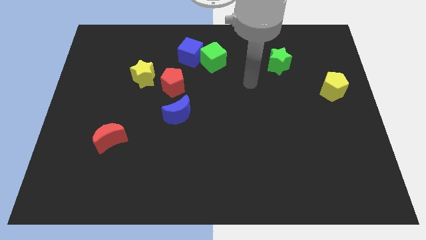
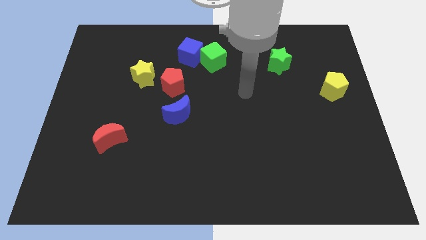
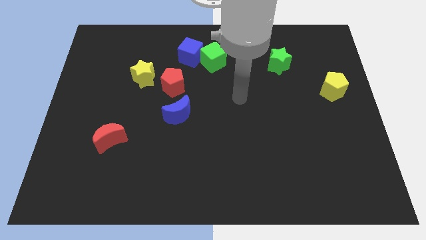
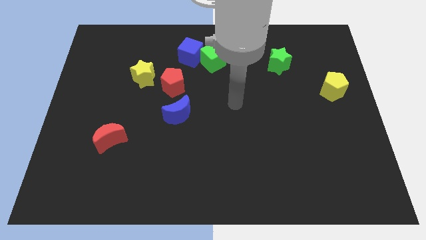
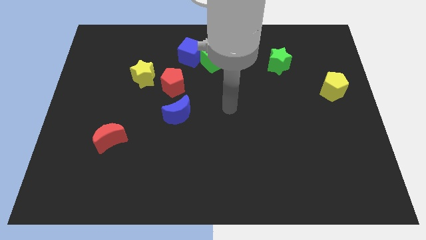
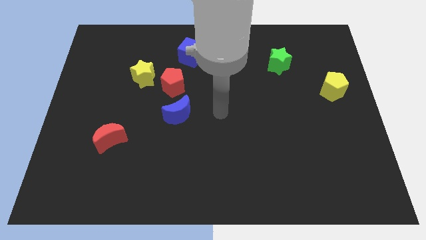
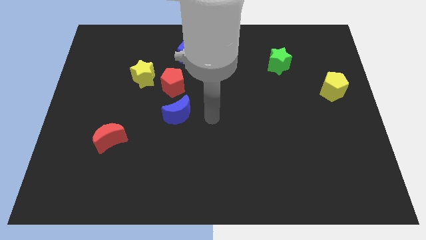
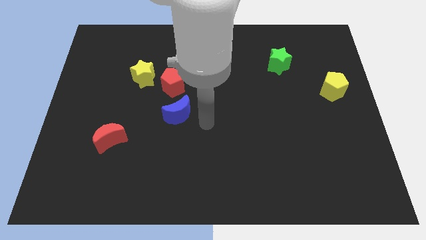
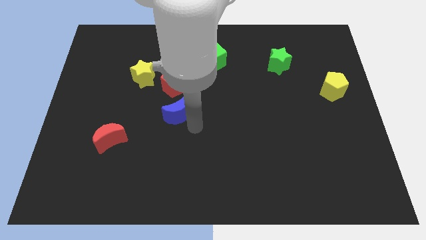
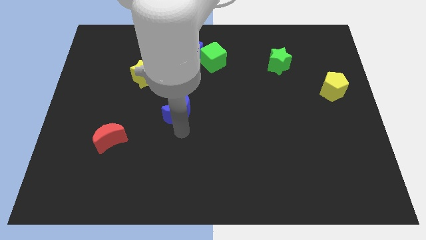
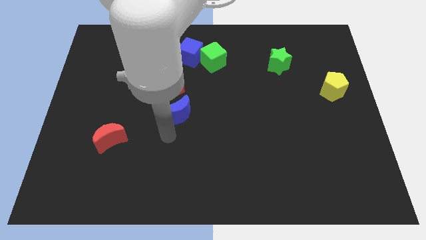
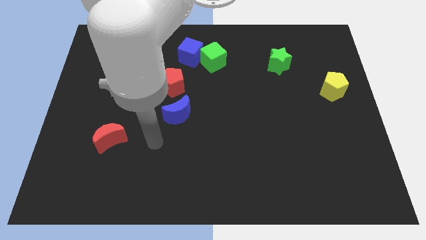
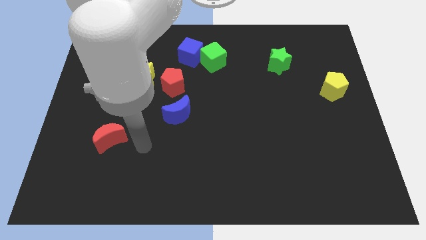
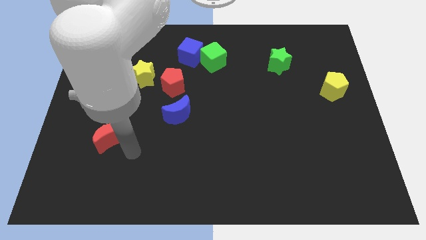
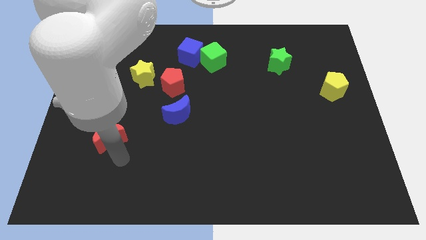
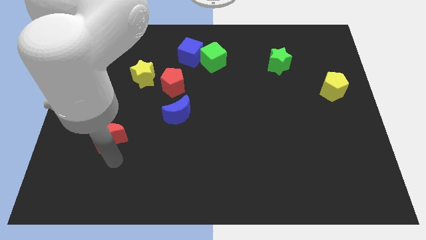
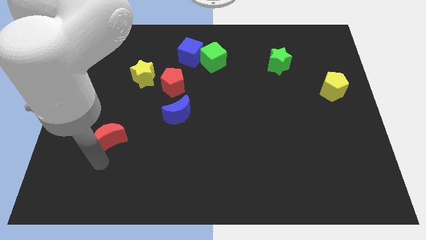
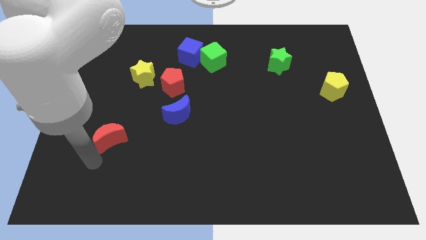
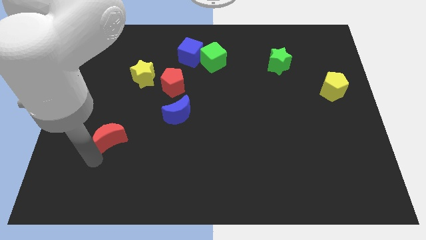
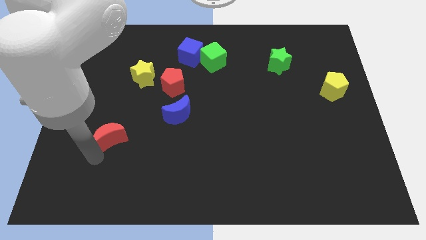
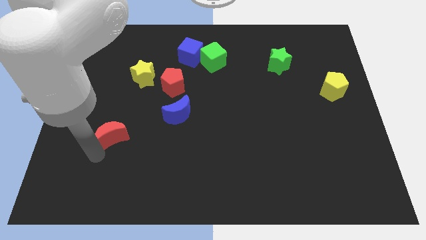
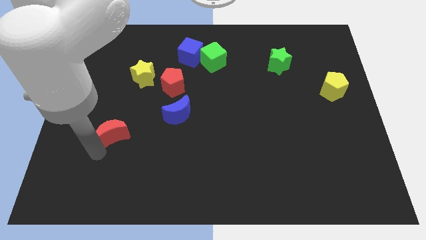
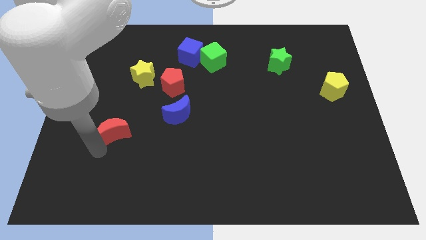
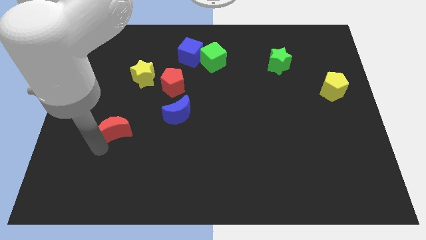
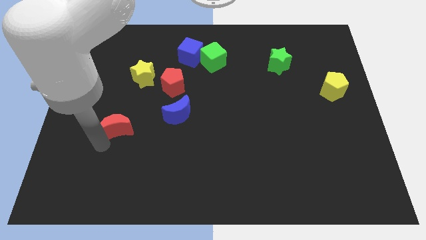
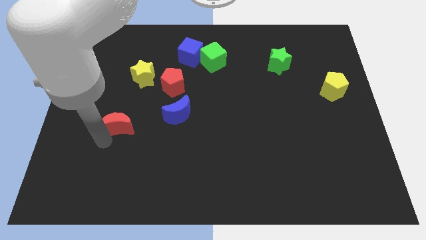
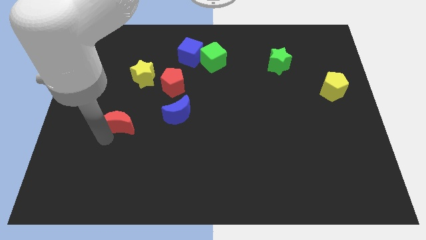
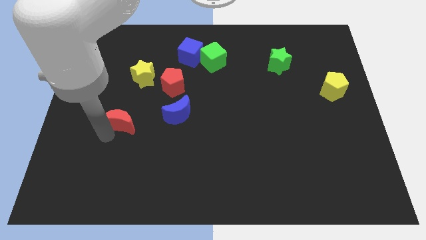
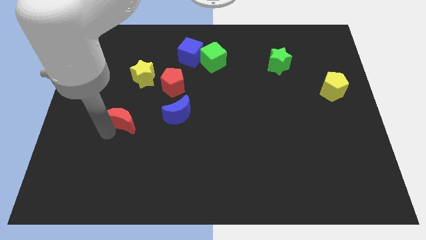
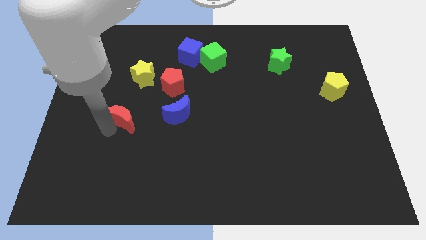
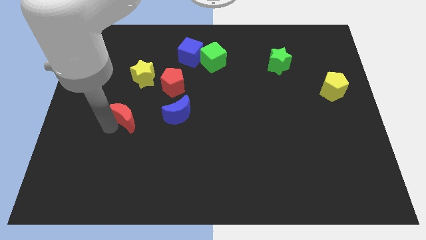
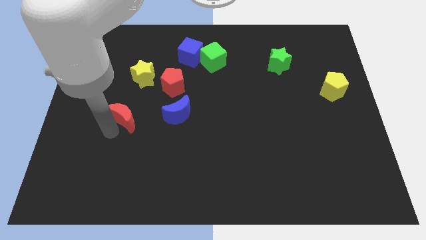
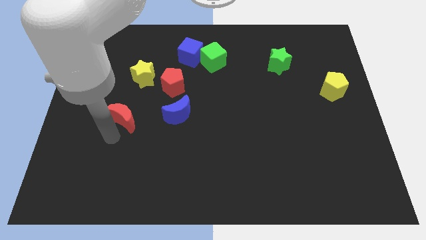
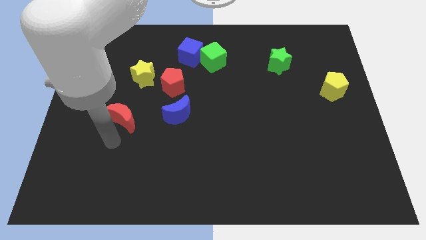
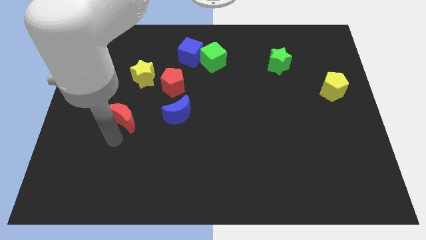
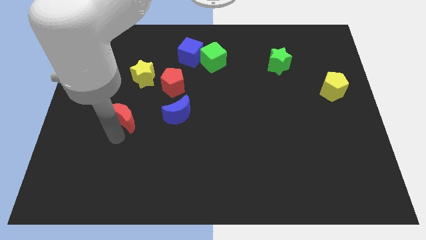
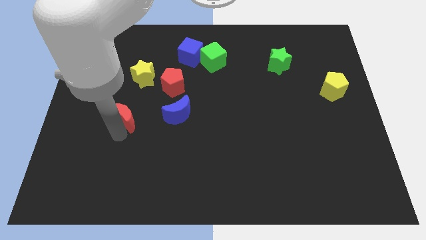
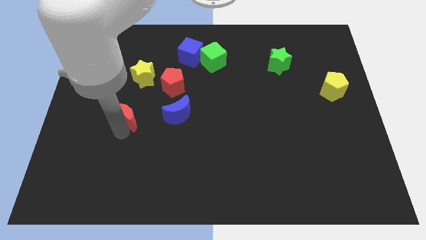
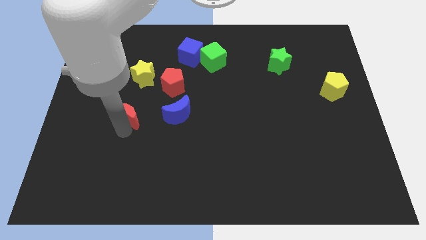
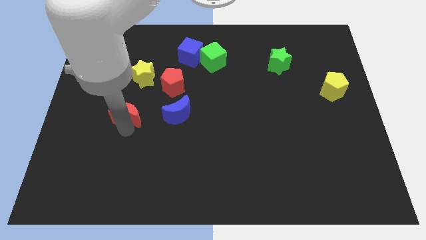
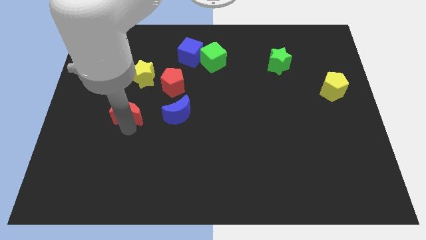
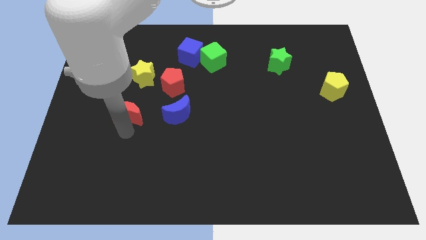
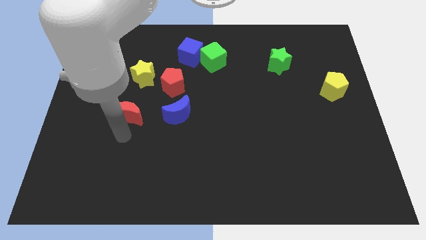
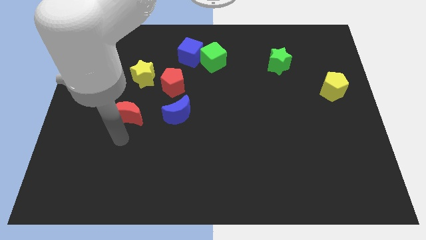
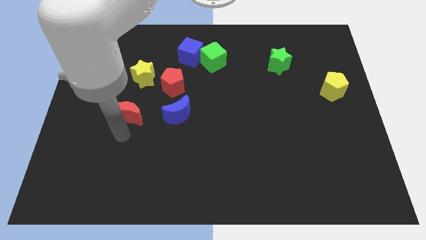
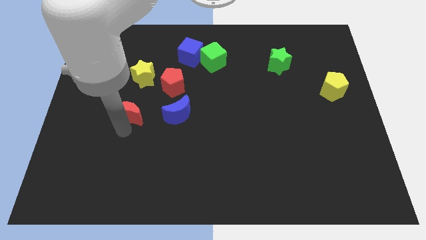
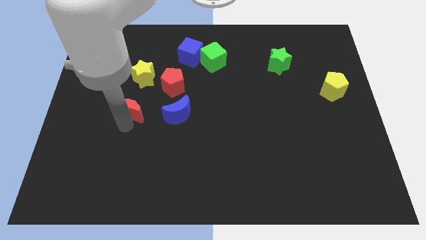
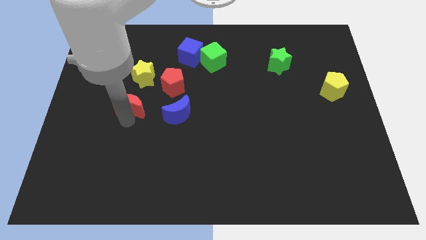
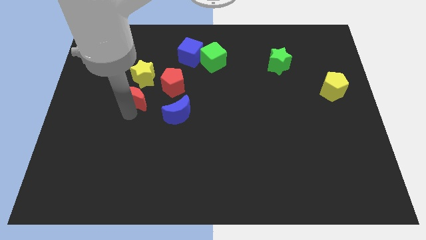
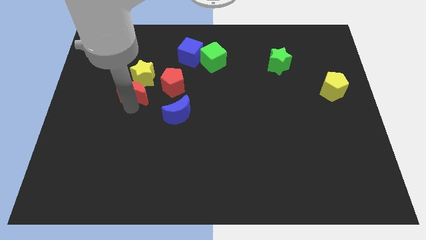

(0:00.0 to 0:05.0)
push the red moon to the yellow star

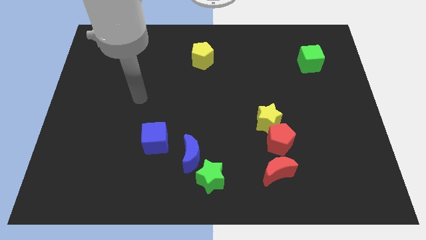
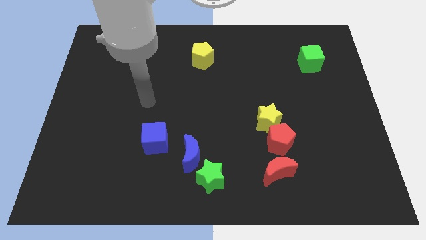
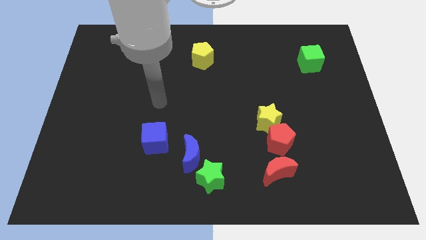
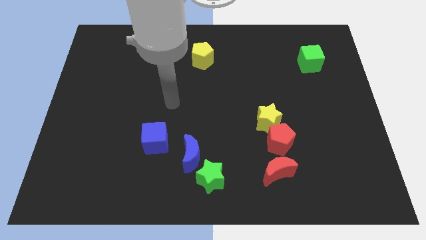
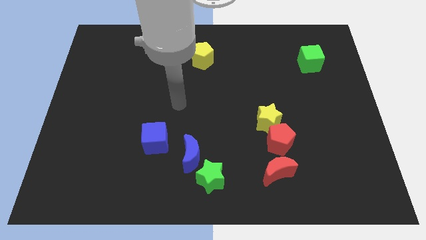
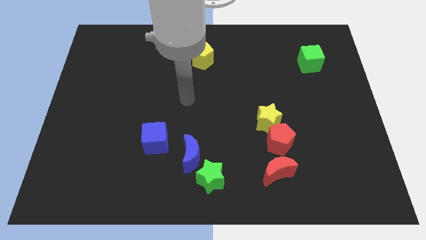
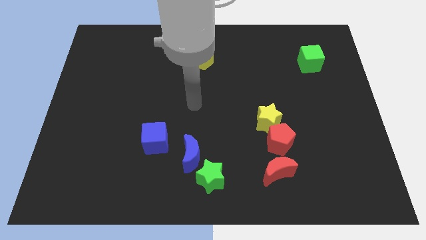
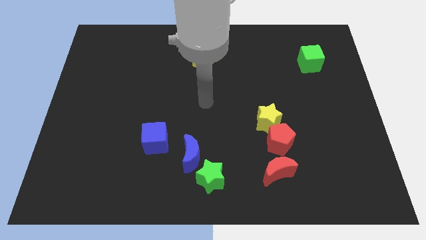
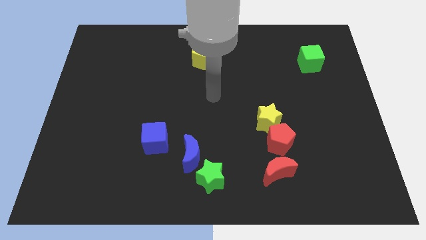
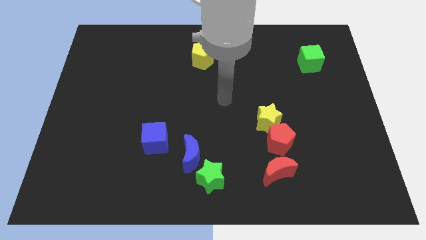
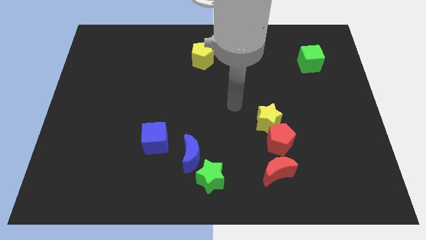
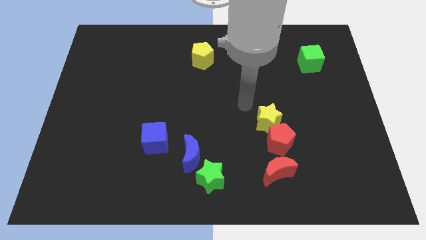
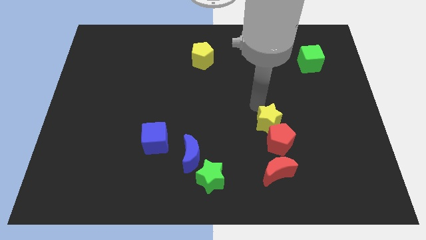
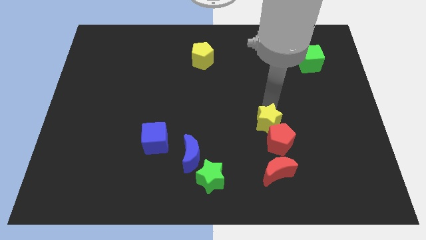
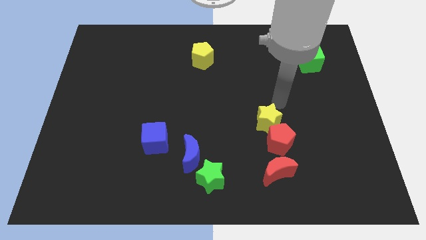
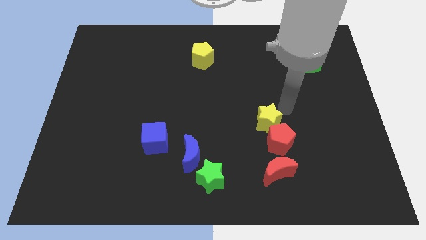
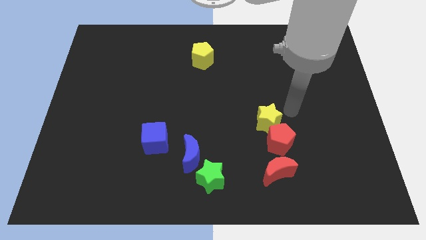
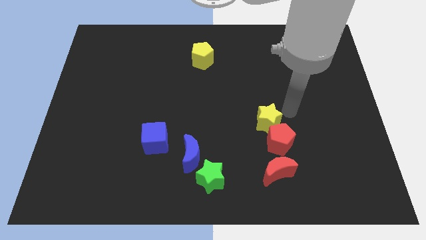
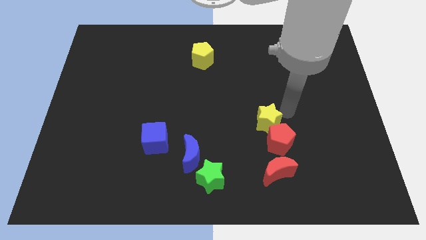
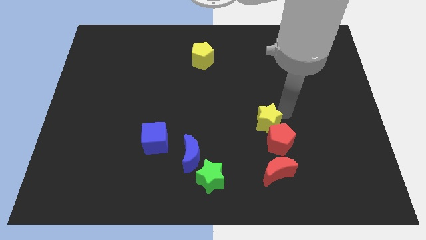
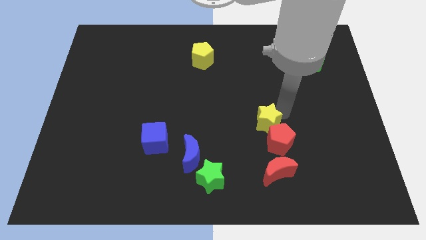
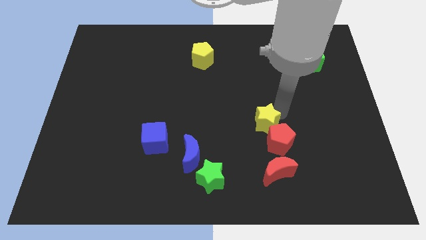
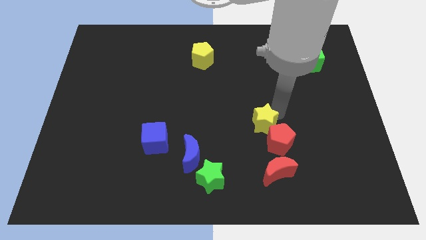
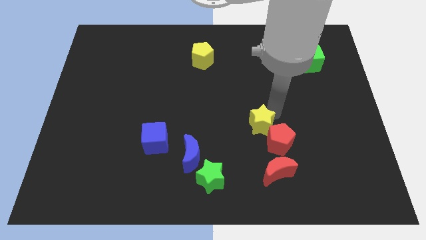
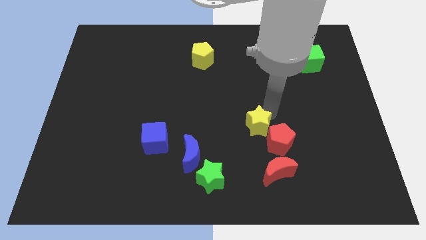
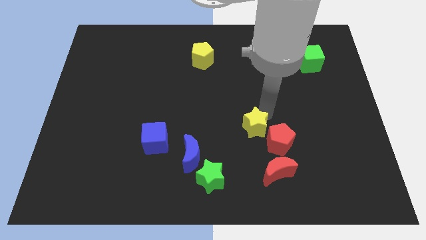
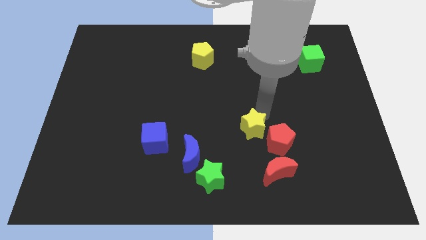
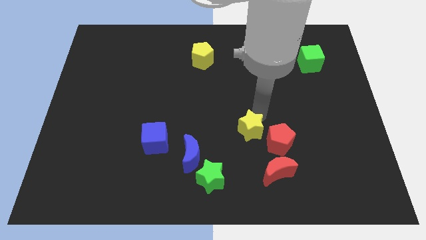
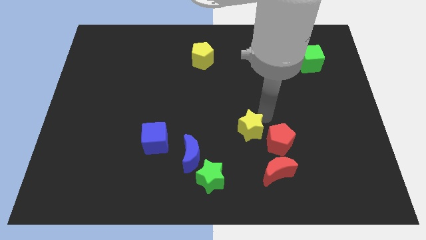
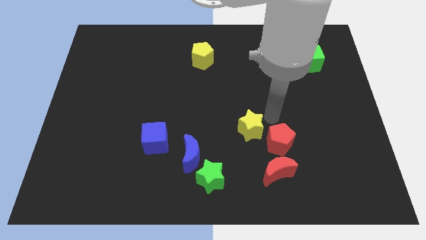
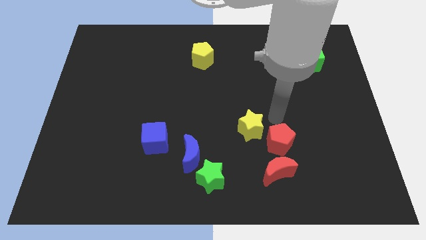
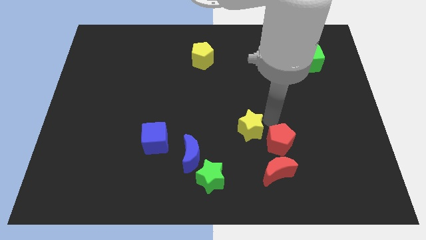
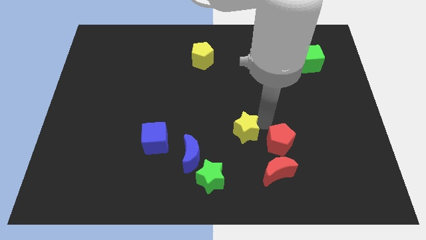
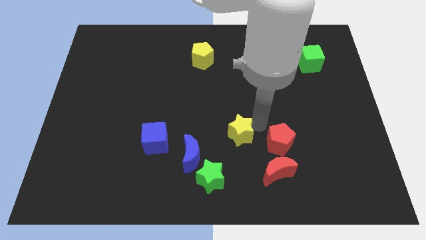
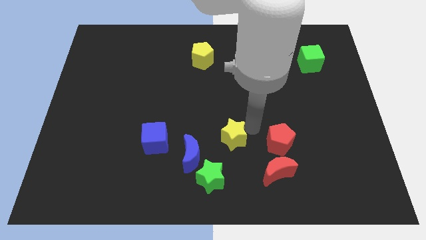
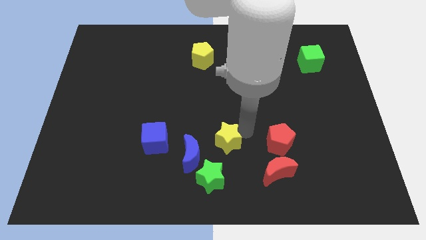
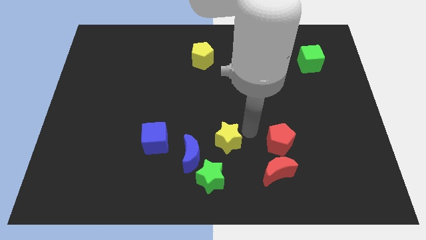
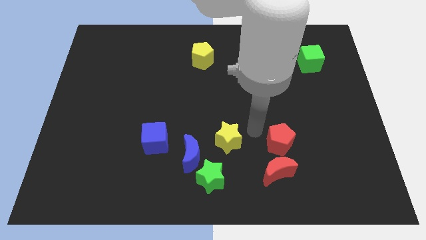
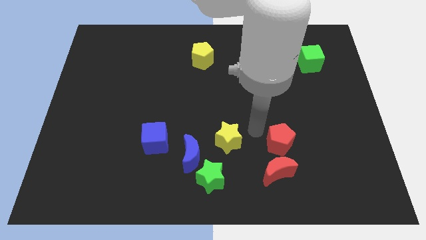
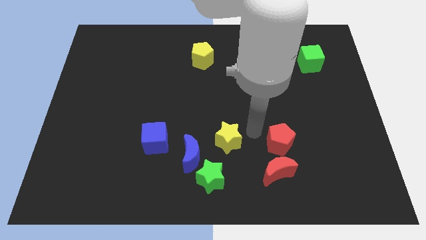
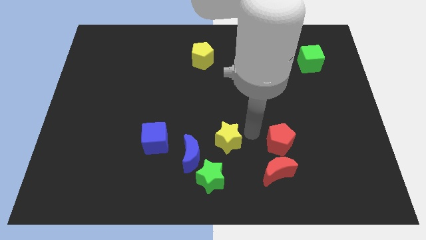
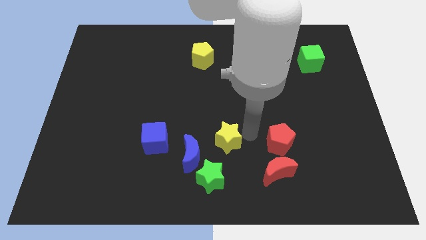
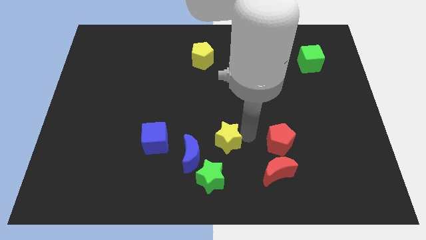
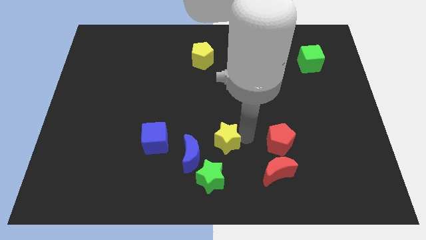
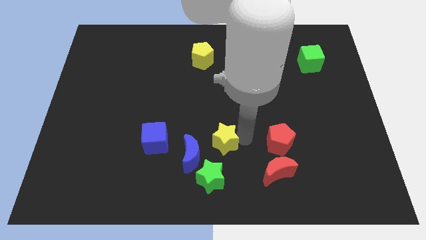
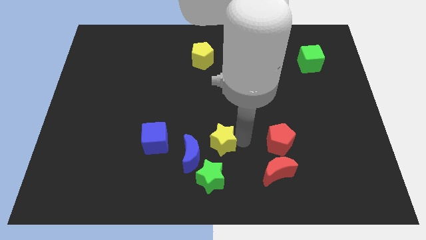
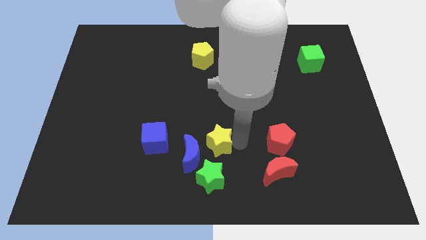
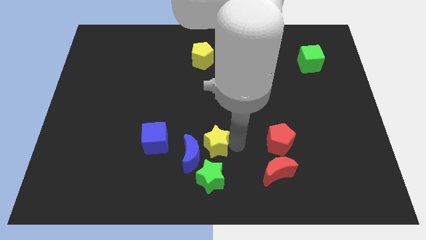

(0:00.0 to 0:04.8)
push the yellow star next to the blue moon
